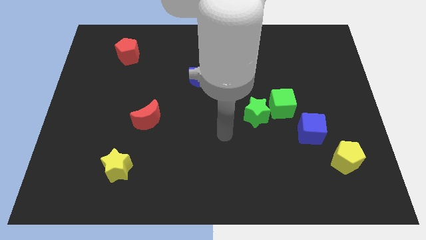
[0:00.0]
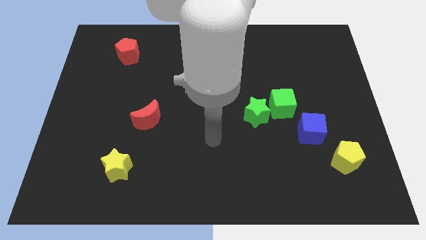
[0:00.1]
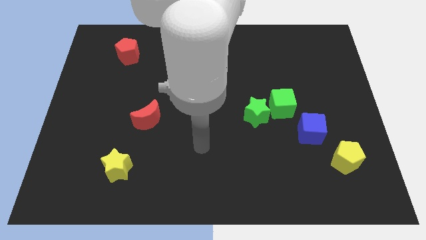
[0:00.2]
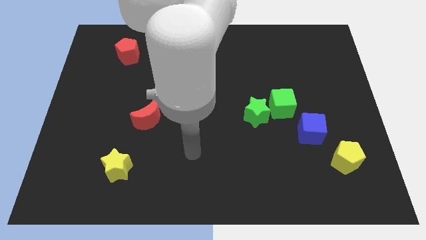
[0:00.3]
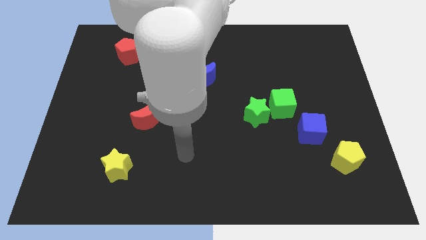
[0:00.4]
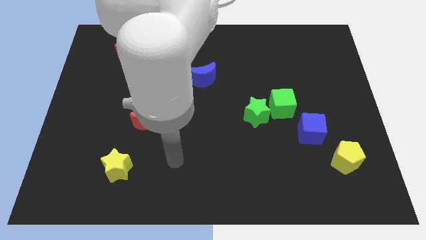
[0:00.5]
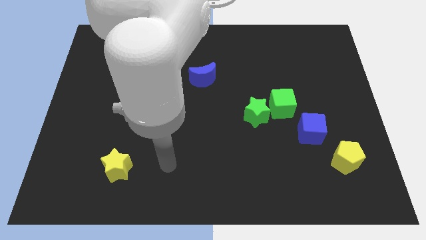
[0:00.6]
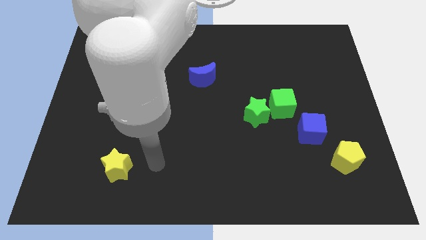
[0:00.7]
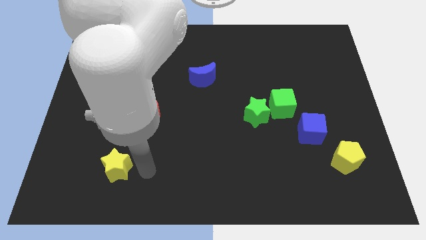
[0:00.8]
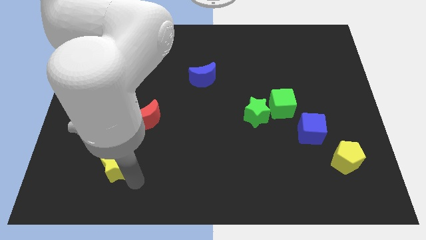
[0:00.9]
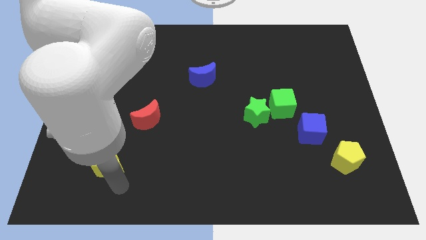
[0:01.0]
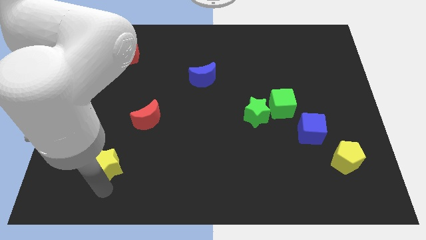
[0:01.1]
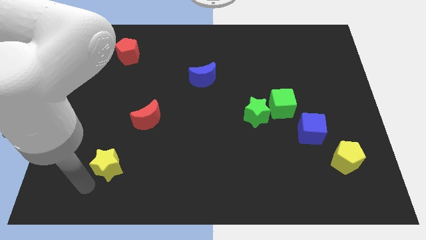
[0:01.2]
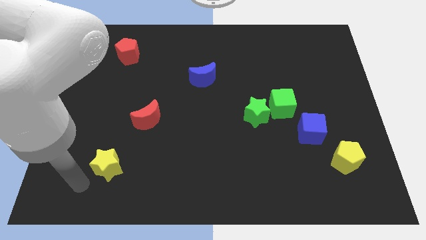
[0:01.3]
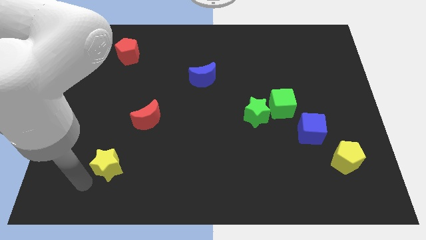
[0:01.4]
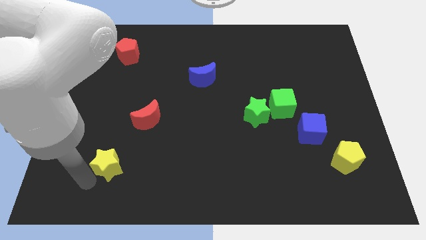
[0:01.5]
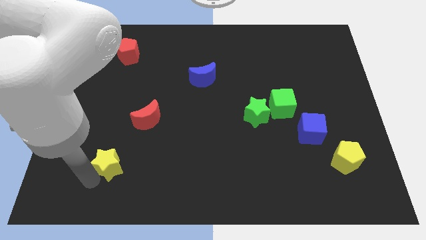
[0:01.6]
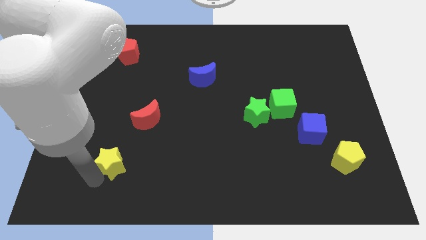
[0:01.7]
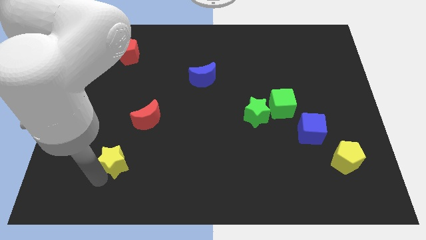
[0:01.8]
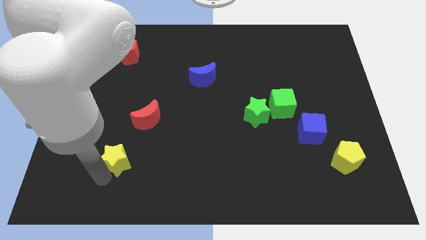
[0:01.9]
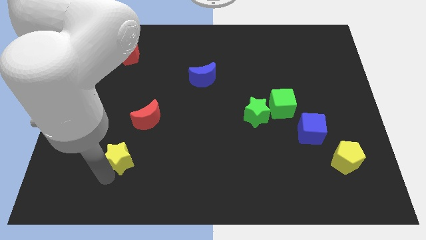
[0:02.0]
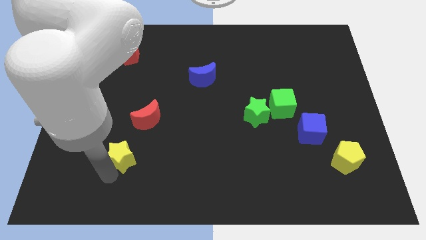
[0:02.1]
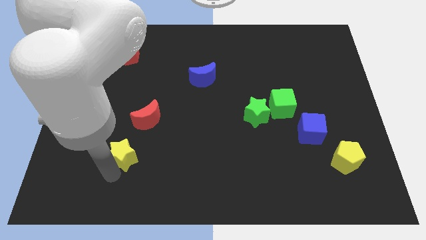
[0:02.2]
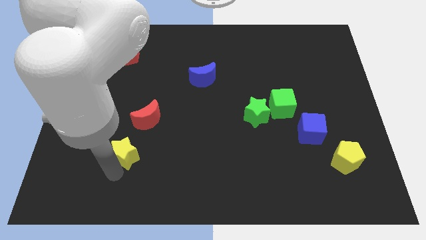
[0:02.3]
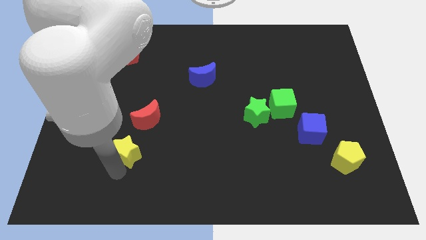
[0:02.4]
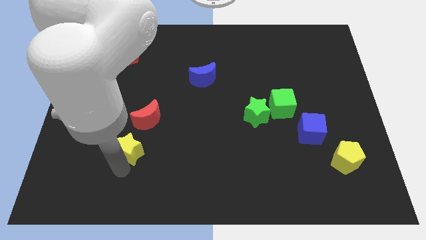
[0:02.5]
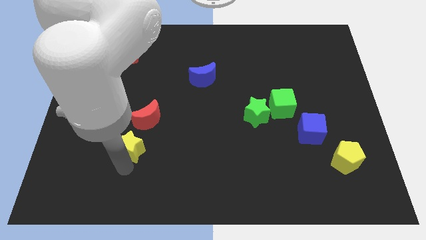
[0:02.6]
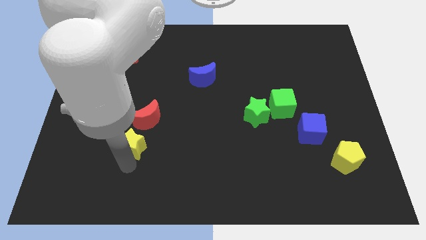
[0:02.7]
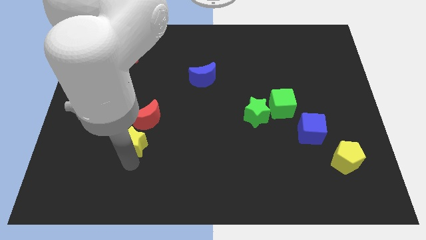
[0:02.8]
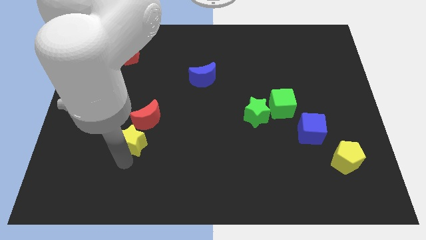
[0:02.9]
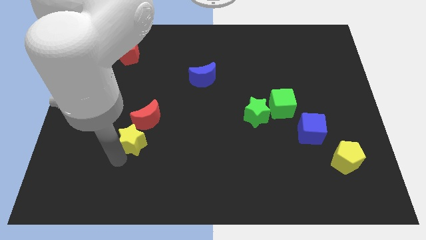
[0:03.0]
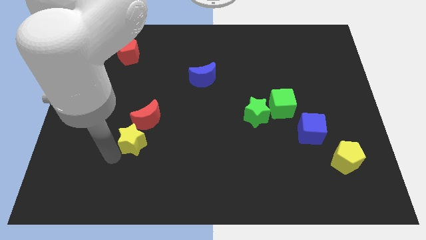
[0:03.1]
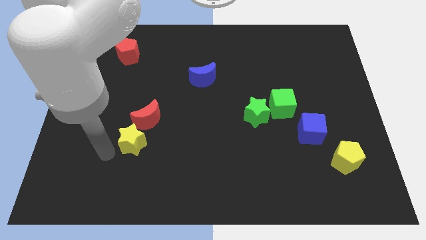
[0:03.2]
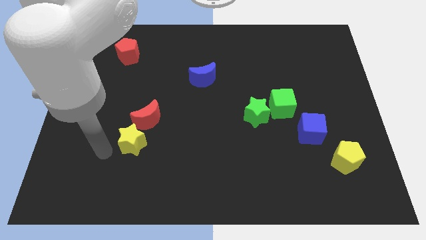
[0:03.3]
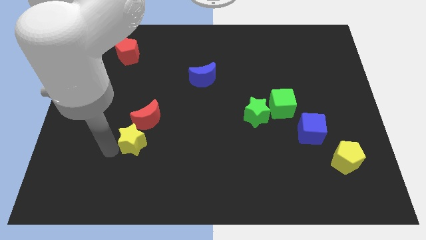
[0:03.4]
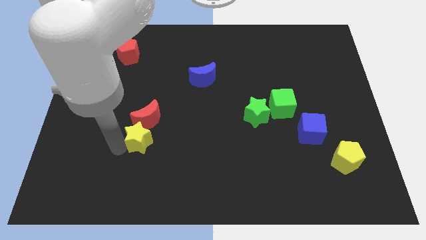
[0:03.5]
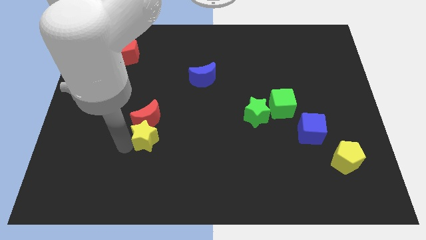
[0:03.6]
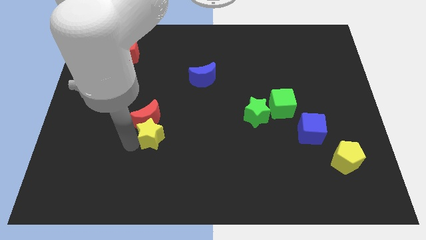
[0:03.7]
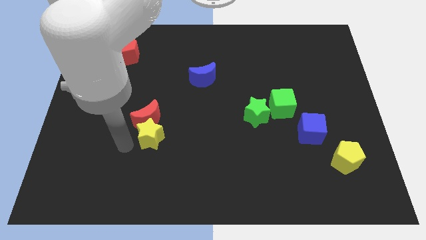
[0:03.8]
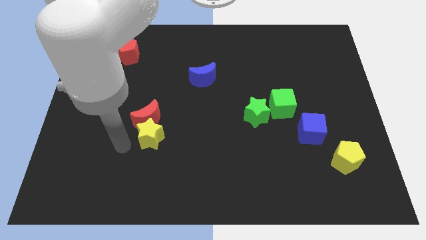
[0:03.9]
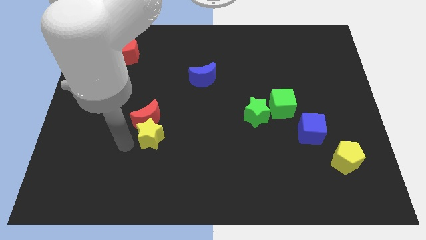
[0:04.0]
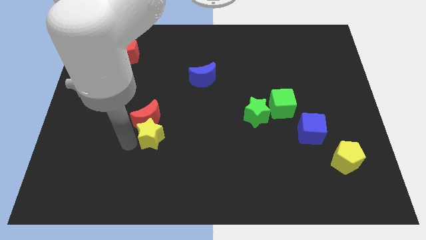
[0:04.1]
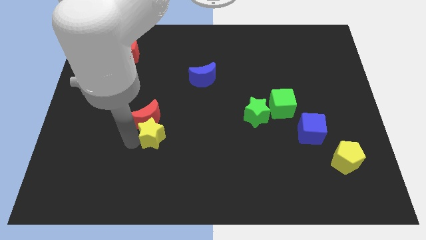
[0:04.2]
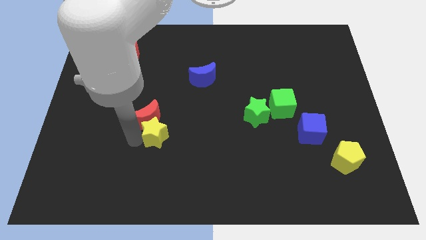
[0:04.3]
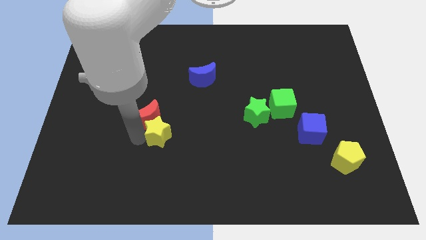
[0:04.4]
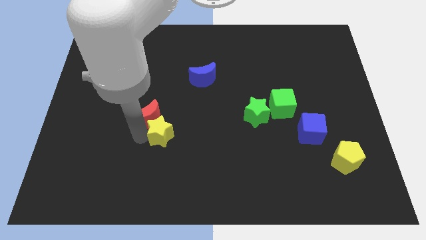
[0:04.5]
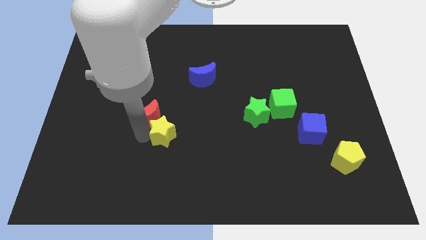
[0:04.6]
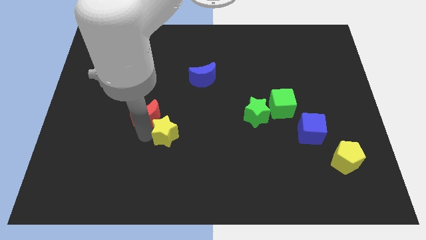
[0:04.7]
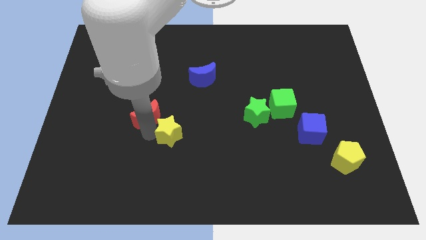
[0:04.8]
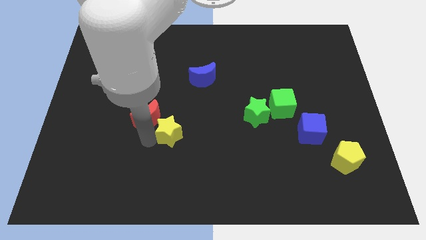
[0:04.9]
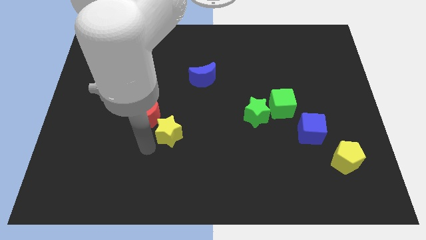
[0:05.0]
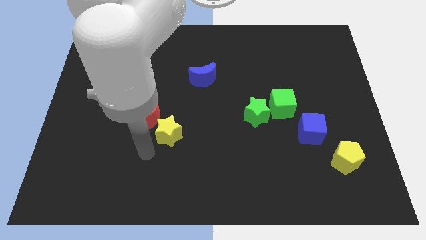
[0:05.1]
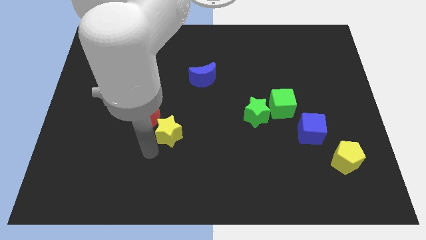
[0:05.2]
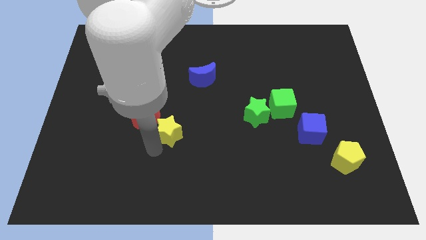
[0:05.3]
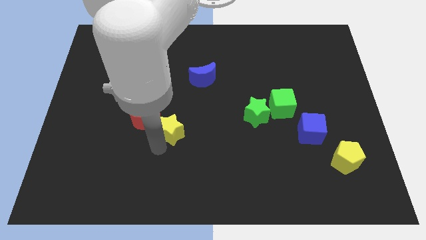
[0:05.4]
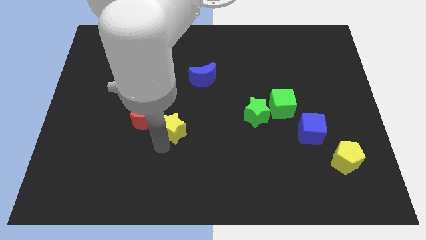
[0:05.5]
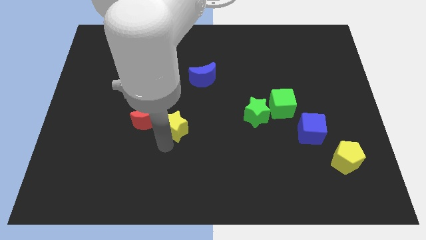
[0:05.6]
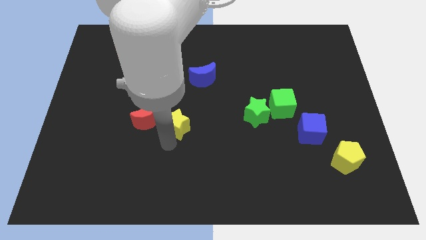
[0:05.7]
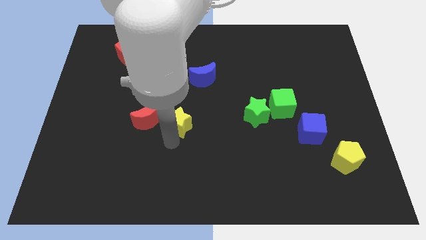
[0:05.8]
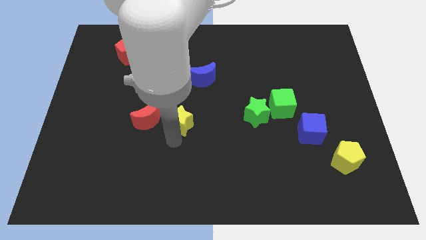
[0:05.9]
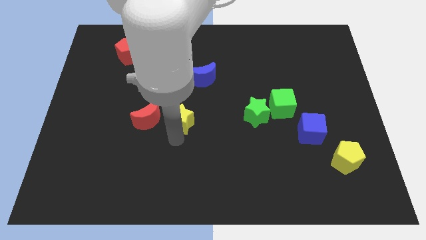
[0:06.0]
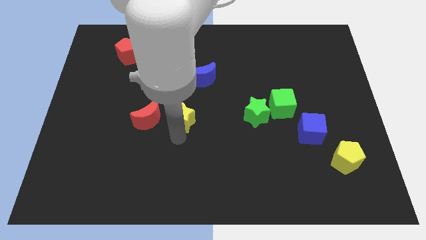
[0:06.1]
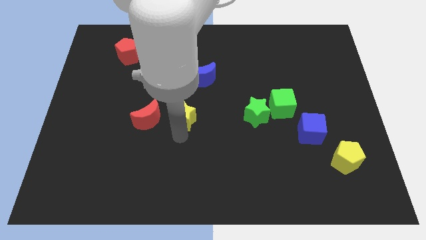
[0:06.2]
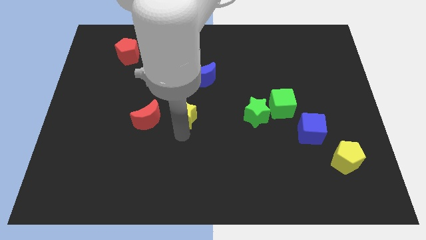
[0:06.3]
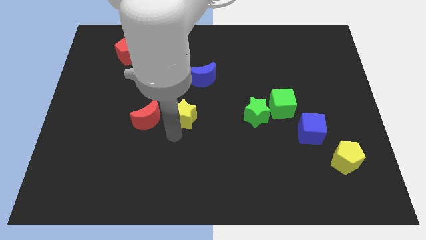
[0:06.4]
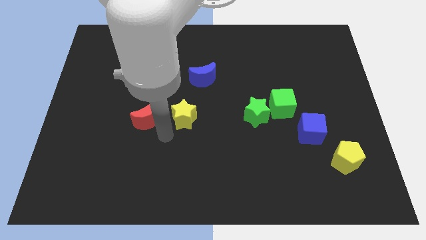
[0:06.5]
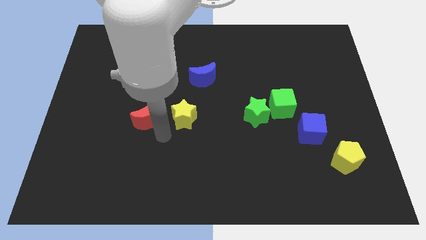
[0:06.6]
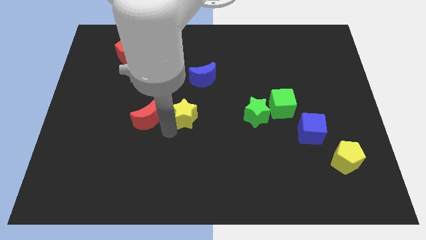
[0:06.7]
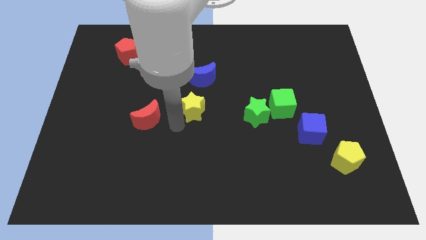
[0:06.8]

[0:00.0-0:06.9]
push the yellow star diagonally up and to the right

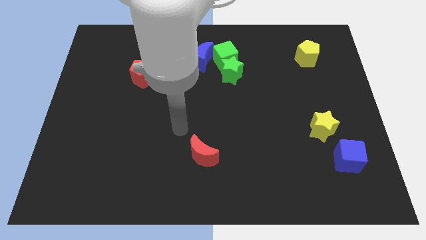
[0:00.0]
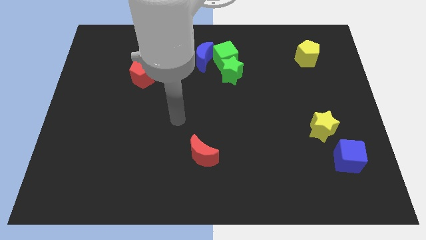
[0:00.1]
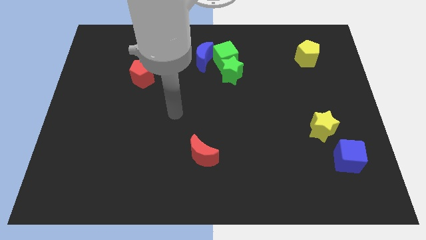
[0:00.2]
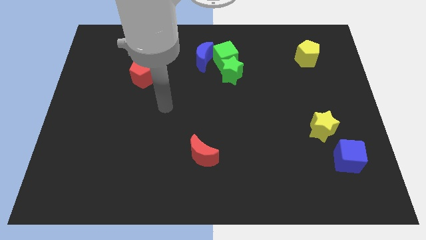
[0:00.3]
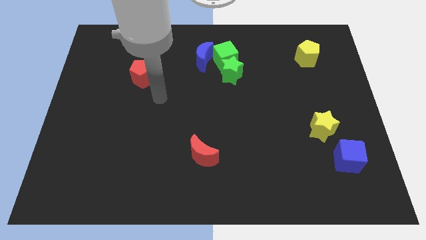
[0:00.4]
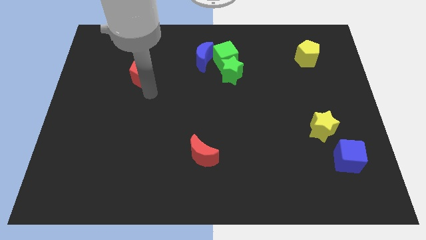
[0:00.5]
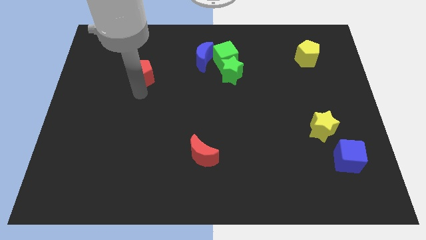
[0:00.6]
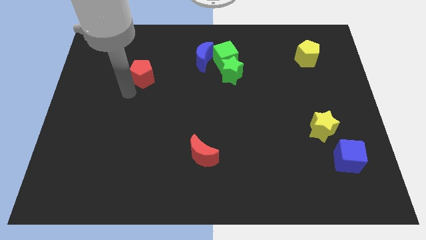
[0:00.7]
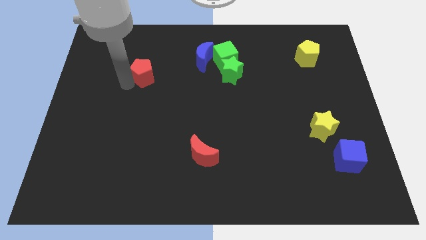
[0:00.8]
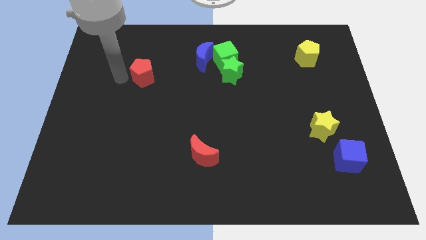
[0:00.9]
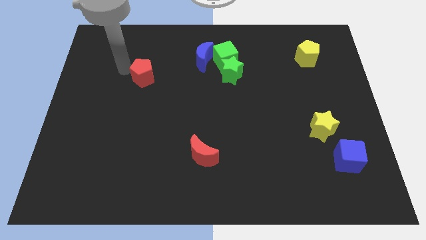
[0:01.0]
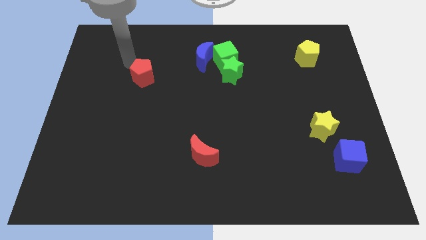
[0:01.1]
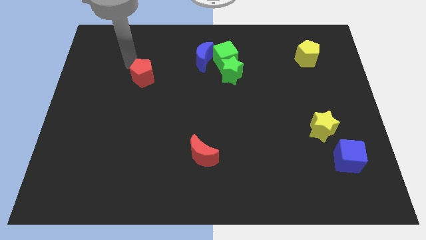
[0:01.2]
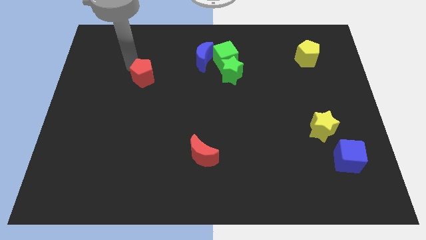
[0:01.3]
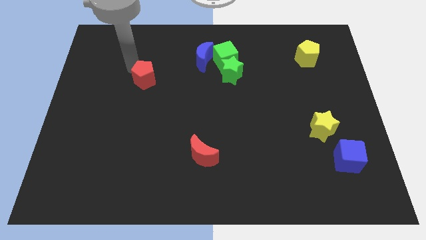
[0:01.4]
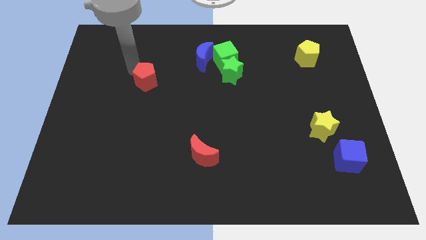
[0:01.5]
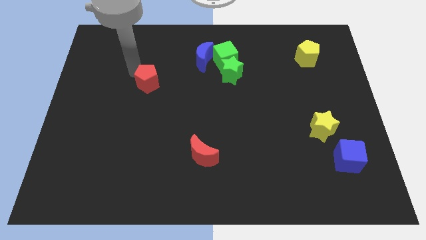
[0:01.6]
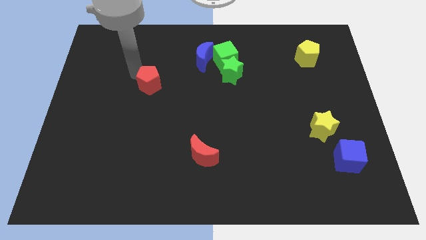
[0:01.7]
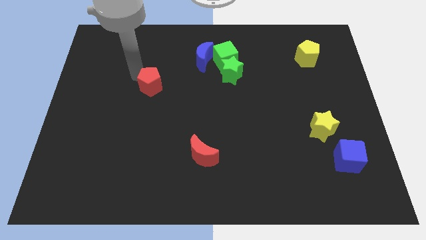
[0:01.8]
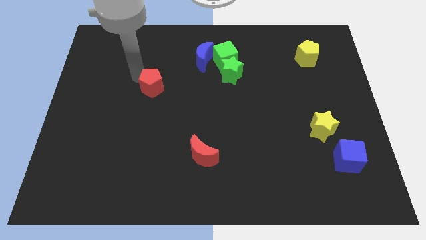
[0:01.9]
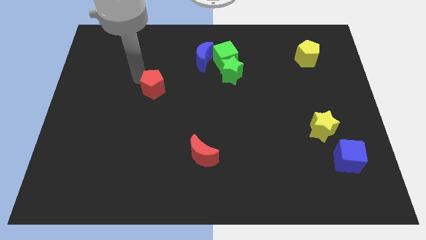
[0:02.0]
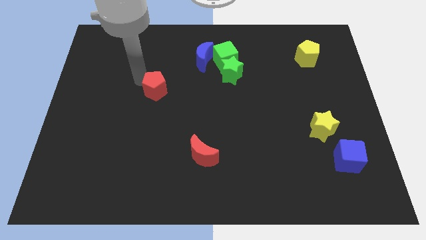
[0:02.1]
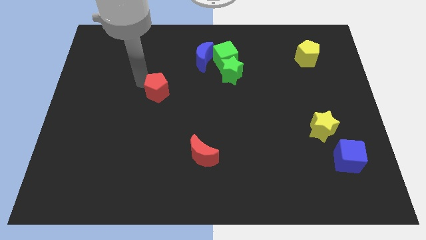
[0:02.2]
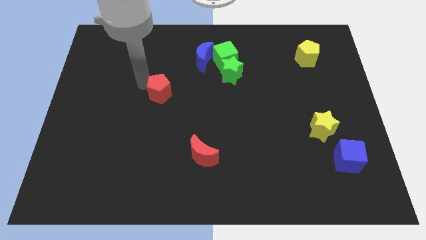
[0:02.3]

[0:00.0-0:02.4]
slightly move the red pentagon downwards and then to the right
